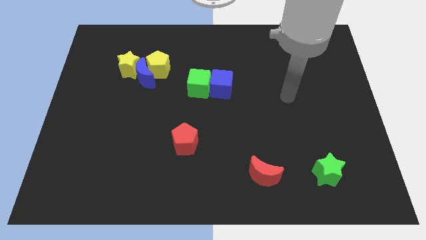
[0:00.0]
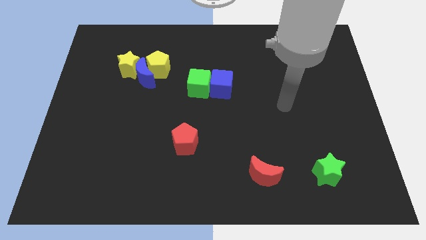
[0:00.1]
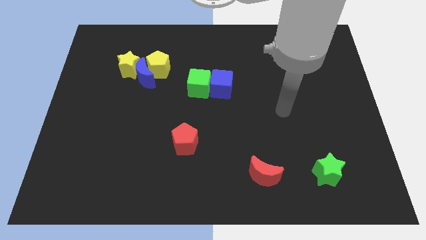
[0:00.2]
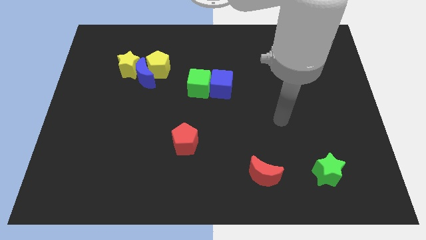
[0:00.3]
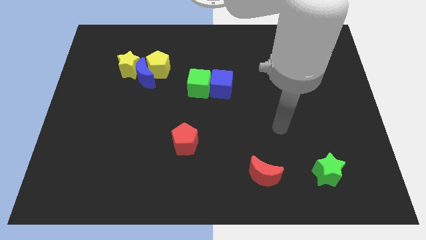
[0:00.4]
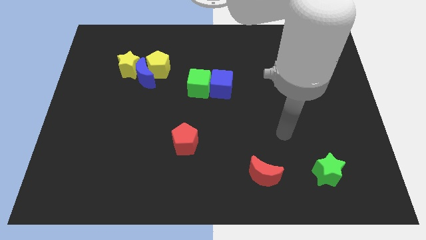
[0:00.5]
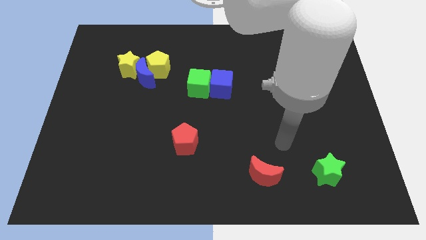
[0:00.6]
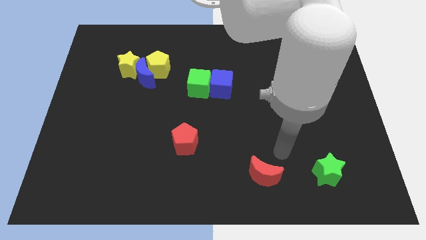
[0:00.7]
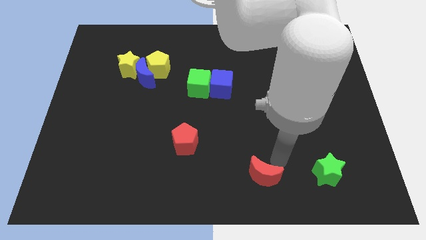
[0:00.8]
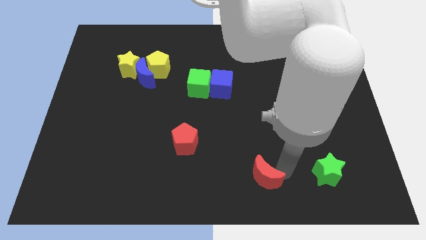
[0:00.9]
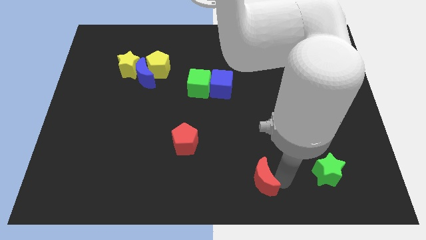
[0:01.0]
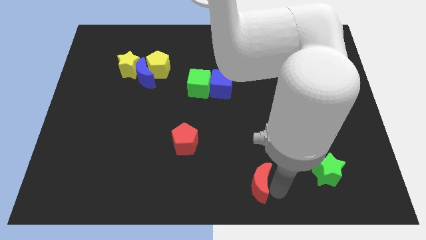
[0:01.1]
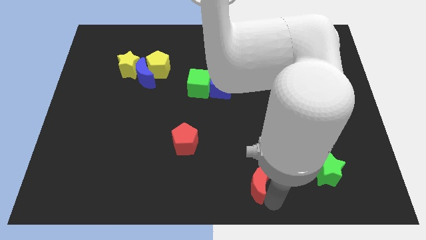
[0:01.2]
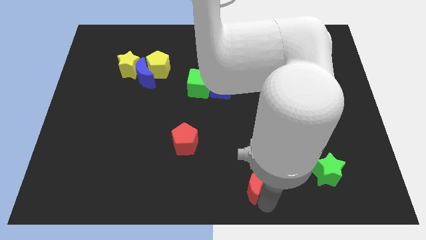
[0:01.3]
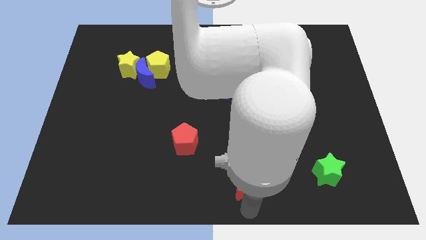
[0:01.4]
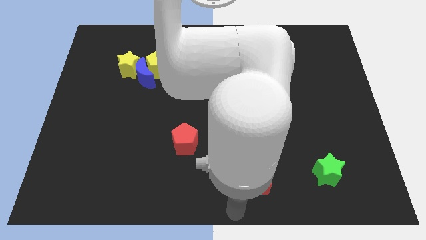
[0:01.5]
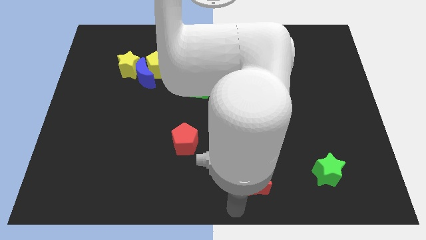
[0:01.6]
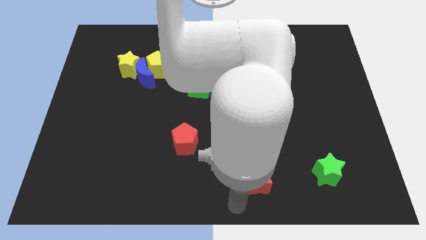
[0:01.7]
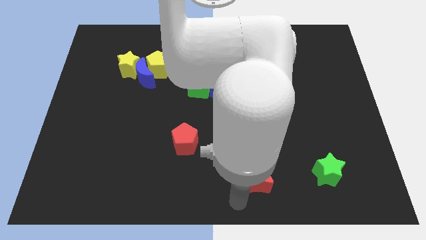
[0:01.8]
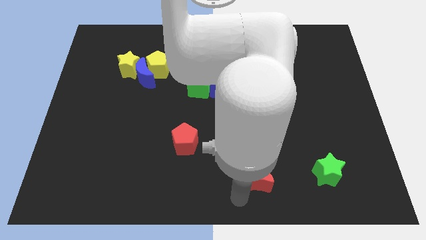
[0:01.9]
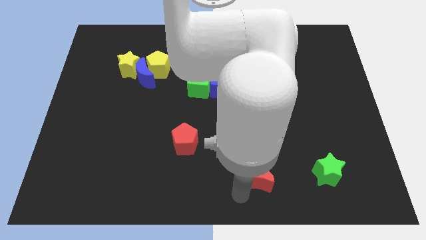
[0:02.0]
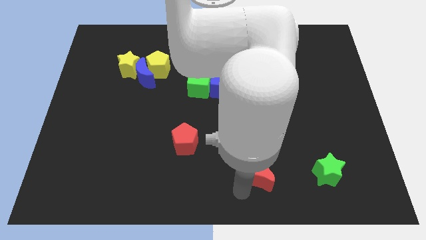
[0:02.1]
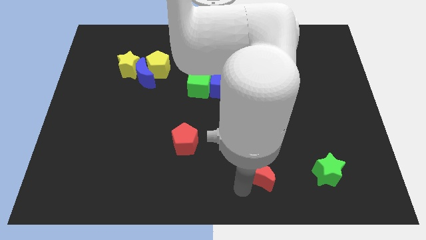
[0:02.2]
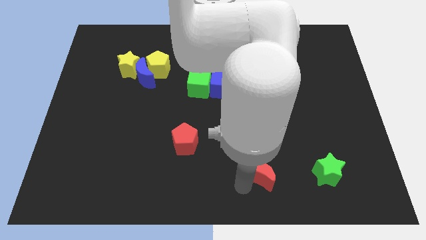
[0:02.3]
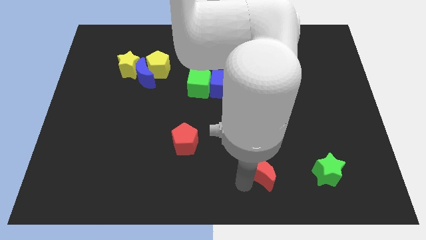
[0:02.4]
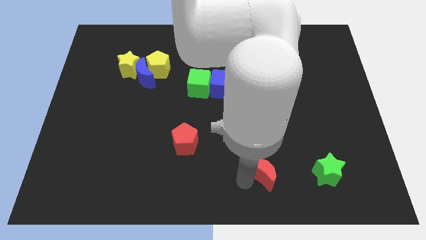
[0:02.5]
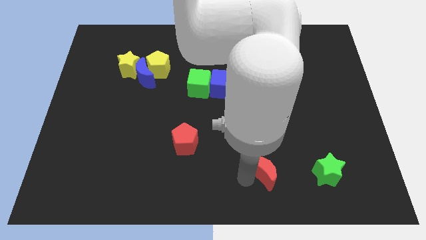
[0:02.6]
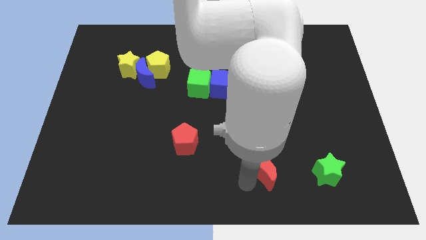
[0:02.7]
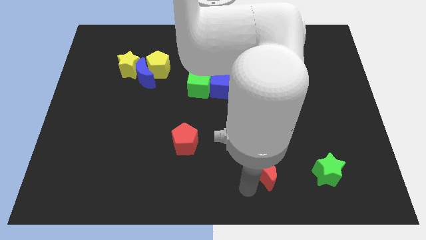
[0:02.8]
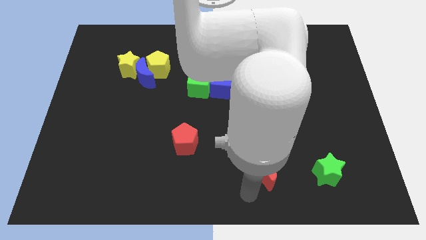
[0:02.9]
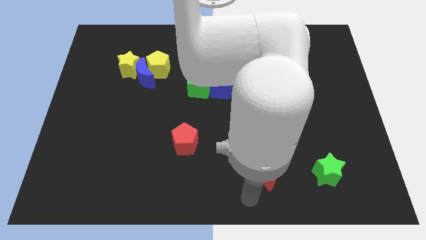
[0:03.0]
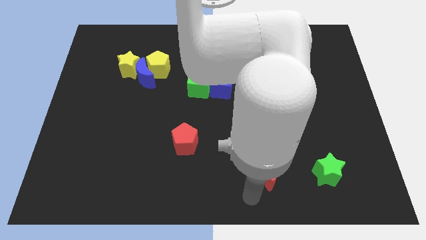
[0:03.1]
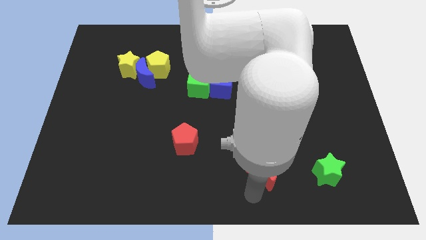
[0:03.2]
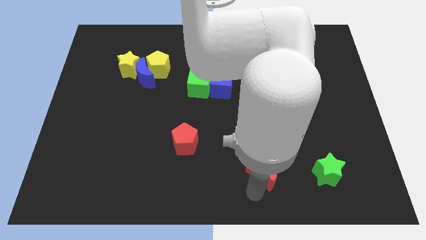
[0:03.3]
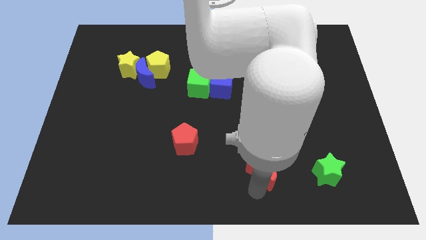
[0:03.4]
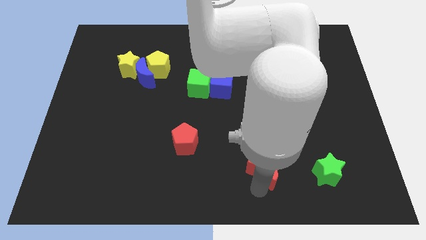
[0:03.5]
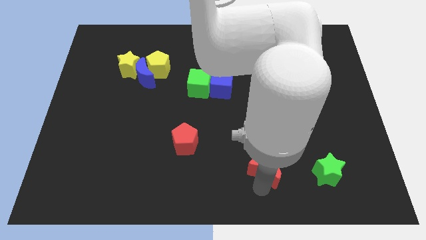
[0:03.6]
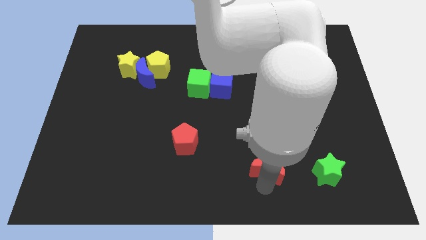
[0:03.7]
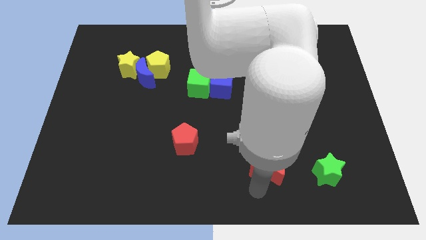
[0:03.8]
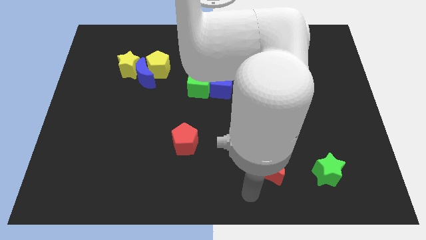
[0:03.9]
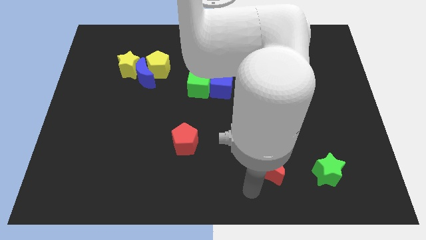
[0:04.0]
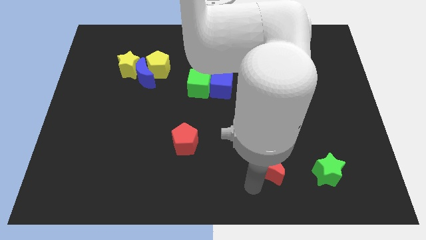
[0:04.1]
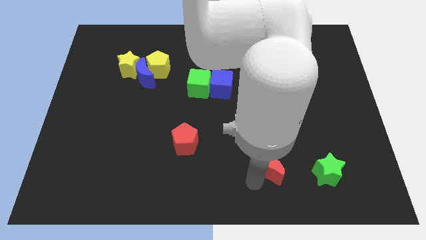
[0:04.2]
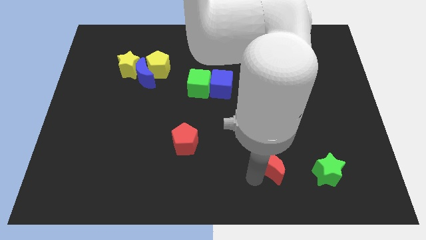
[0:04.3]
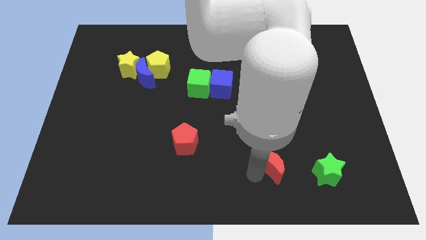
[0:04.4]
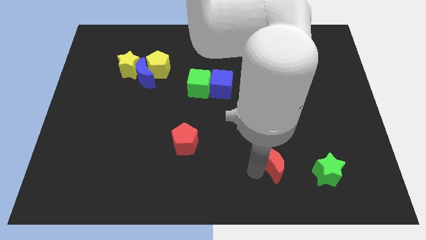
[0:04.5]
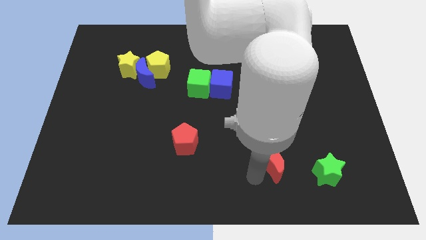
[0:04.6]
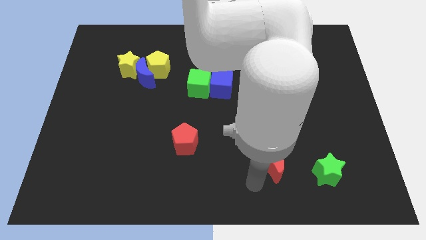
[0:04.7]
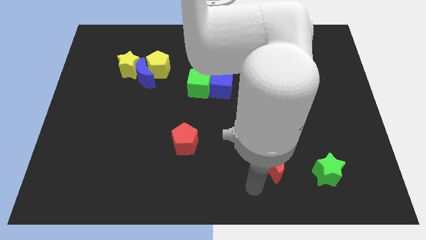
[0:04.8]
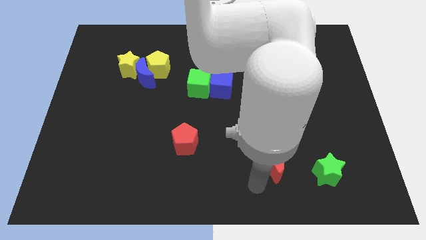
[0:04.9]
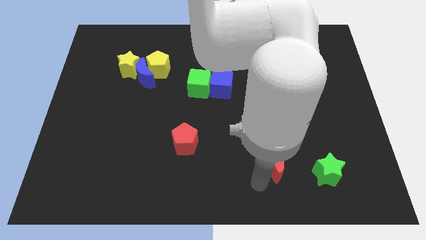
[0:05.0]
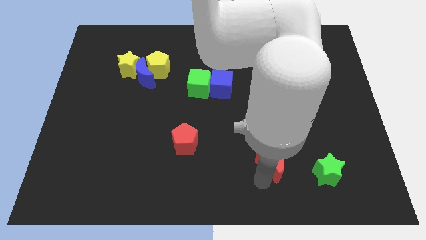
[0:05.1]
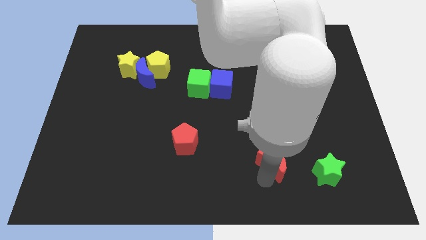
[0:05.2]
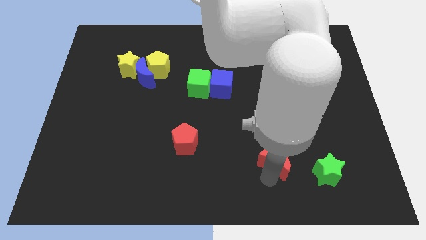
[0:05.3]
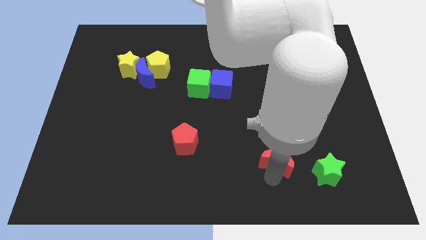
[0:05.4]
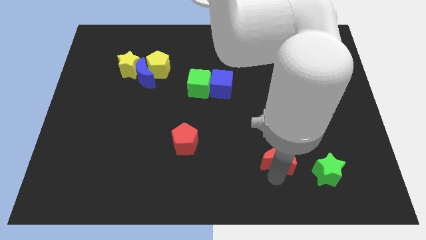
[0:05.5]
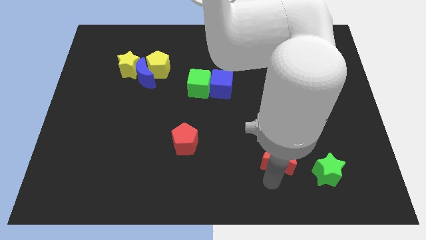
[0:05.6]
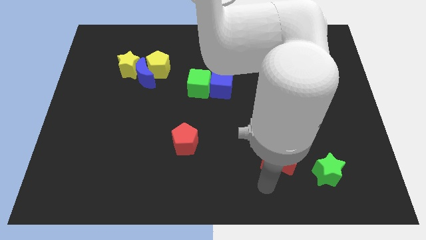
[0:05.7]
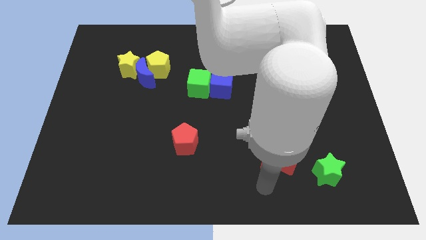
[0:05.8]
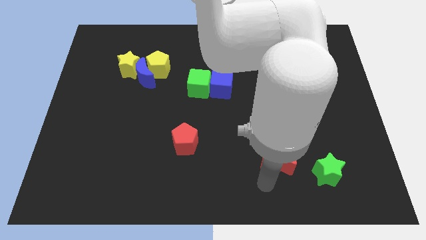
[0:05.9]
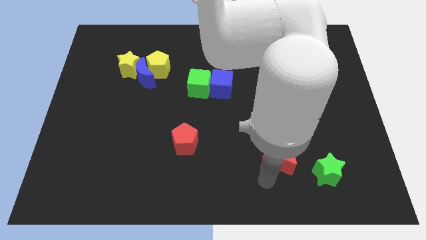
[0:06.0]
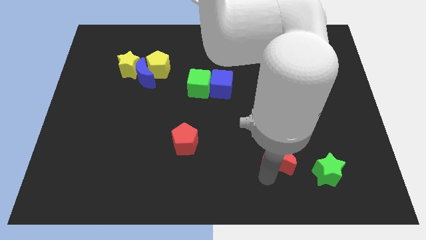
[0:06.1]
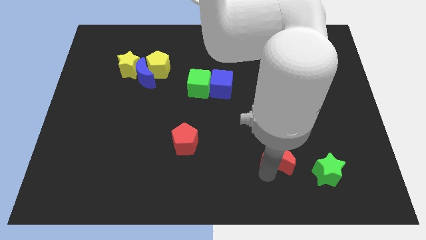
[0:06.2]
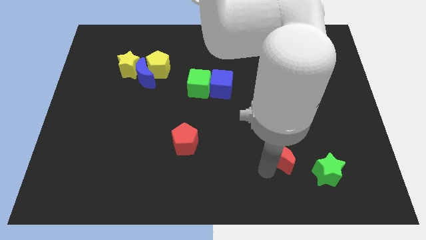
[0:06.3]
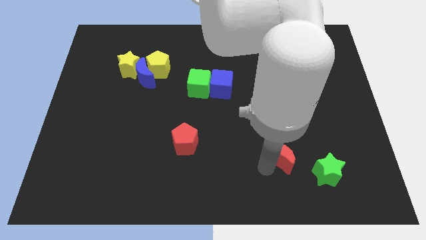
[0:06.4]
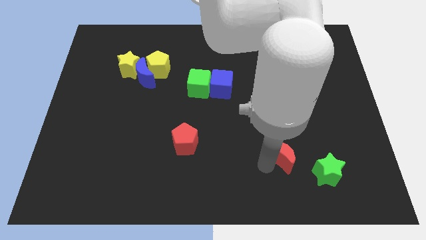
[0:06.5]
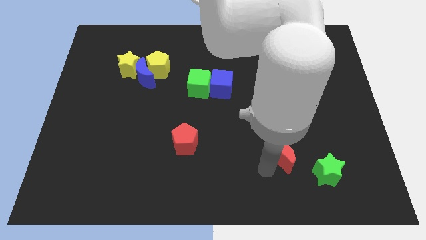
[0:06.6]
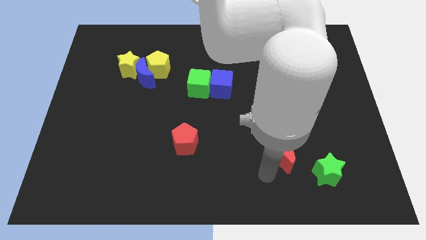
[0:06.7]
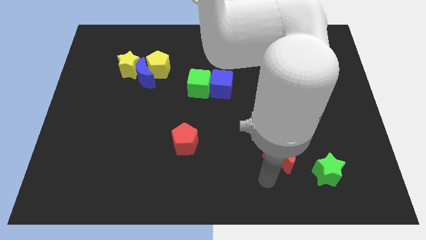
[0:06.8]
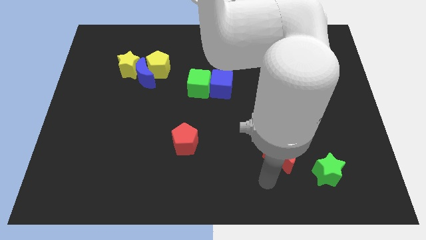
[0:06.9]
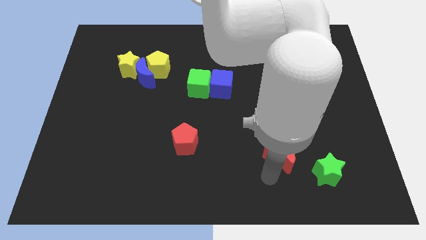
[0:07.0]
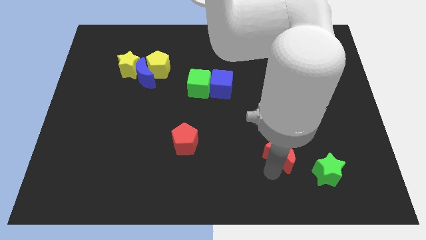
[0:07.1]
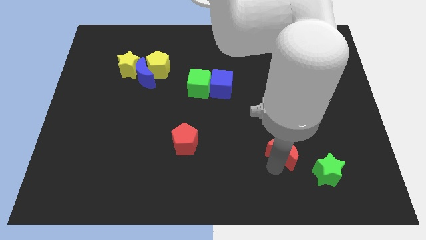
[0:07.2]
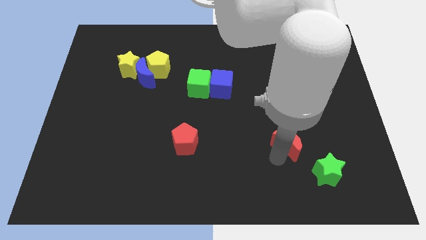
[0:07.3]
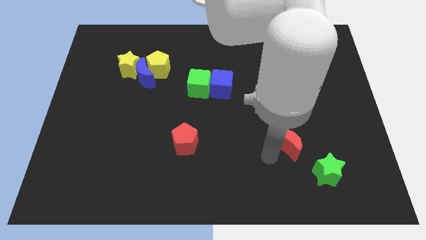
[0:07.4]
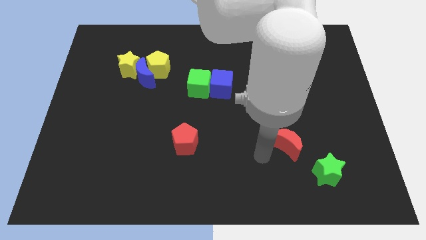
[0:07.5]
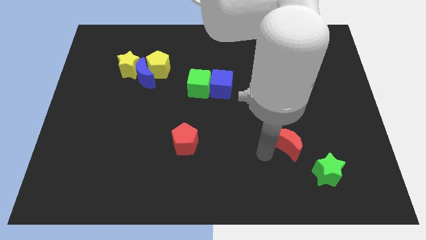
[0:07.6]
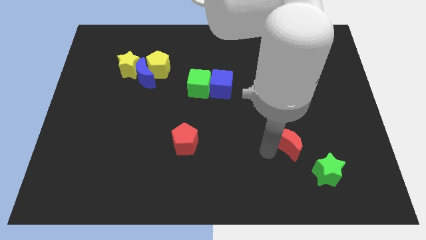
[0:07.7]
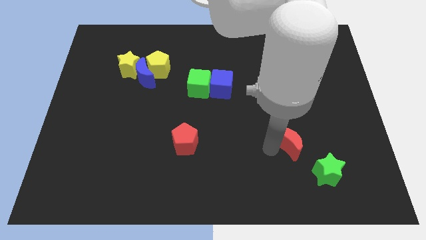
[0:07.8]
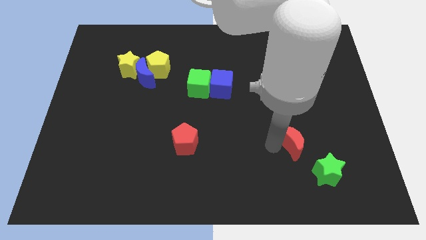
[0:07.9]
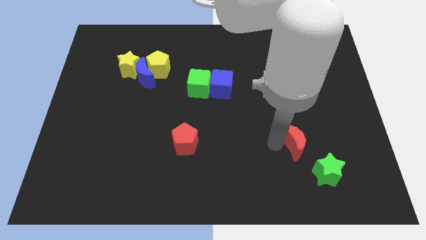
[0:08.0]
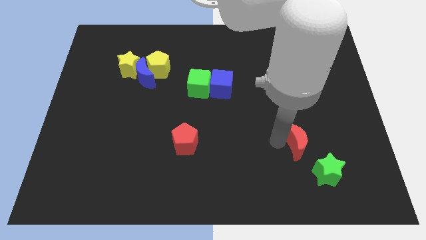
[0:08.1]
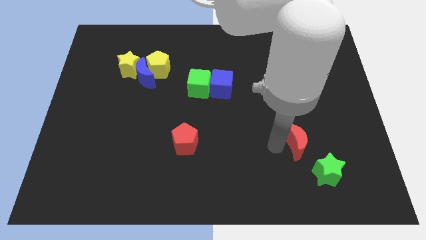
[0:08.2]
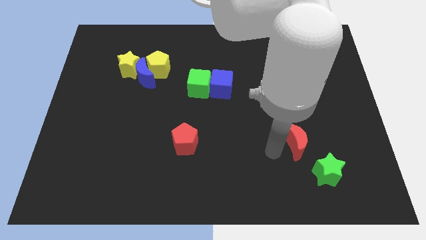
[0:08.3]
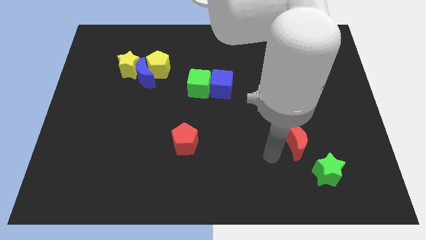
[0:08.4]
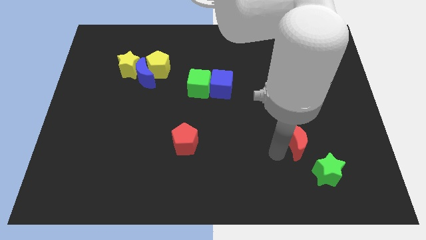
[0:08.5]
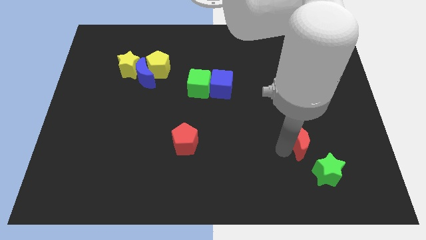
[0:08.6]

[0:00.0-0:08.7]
move the red moon to the top side of the green star
